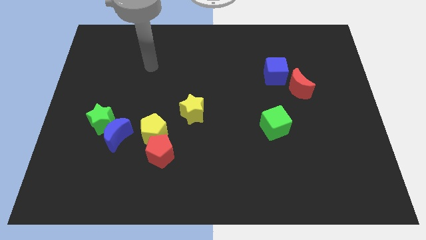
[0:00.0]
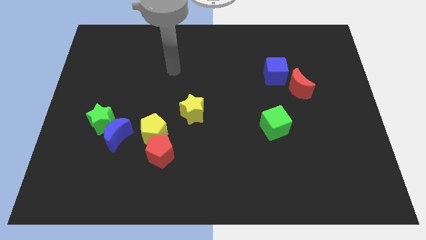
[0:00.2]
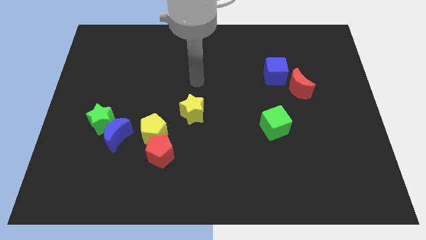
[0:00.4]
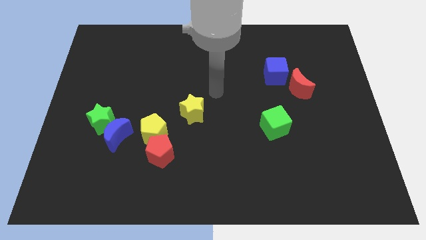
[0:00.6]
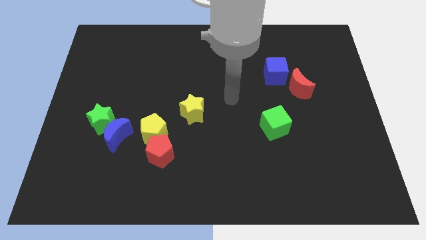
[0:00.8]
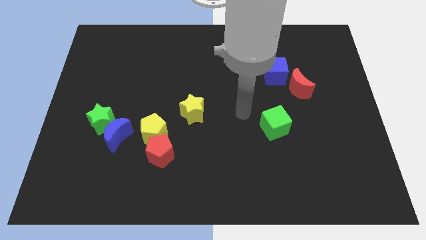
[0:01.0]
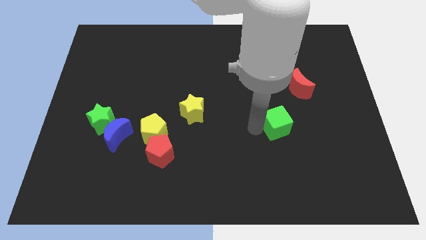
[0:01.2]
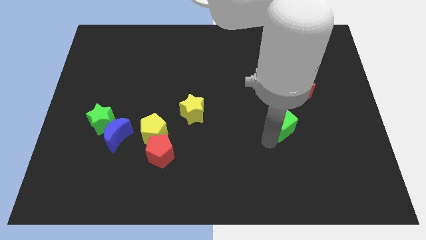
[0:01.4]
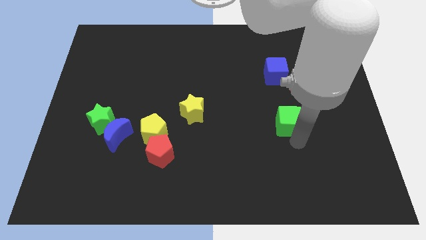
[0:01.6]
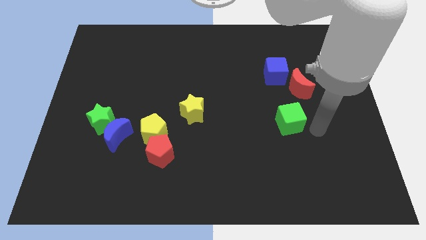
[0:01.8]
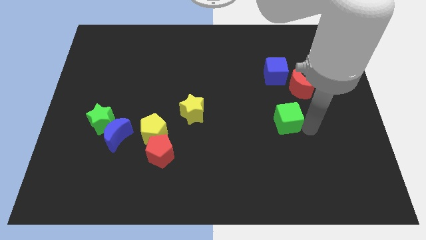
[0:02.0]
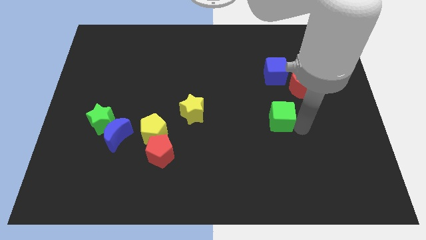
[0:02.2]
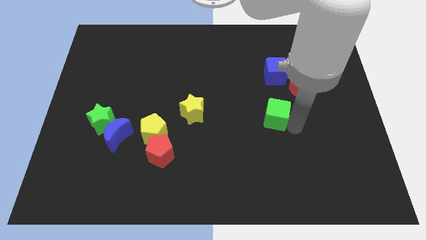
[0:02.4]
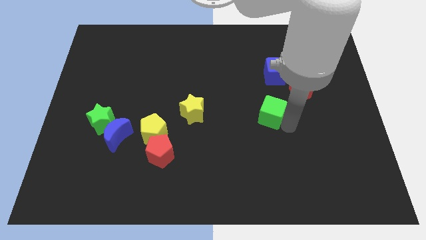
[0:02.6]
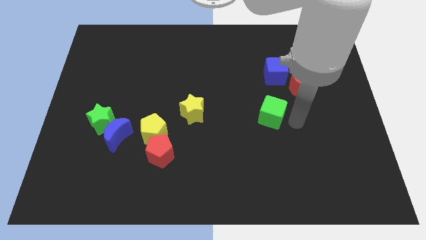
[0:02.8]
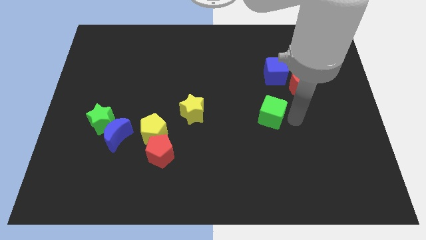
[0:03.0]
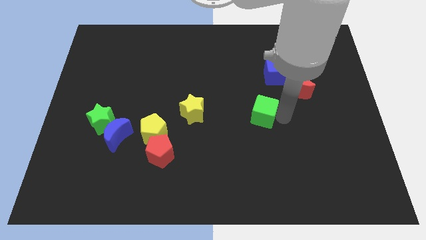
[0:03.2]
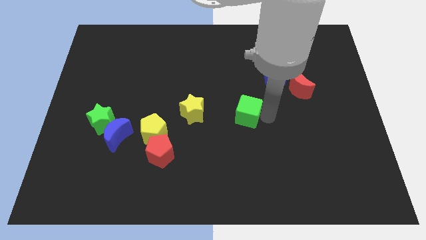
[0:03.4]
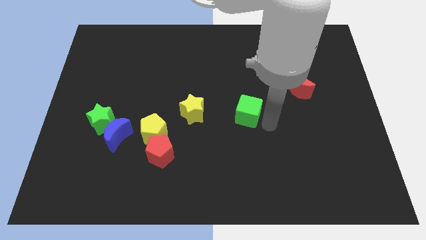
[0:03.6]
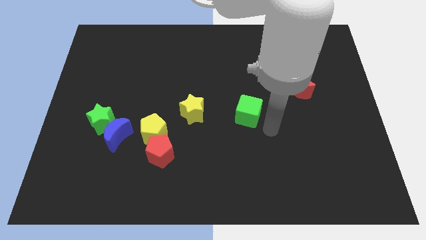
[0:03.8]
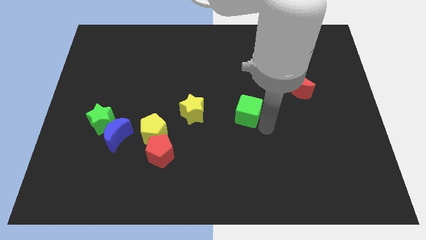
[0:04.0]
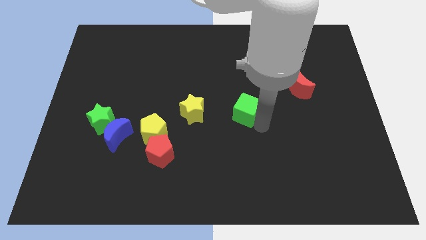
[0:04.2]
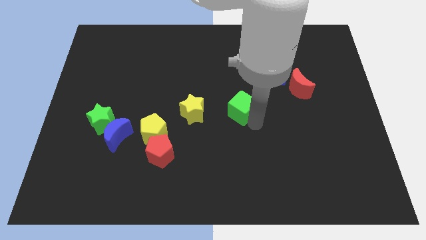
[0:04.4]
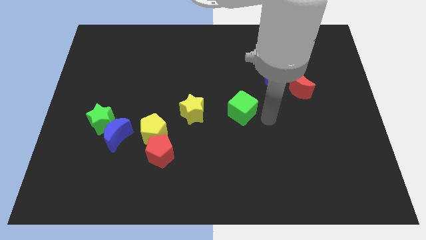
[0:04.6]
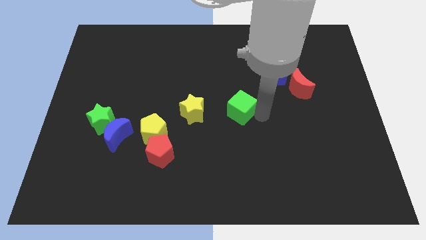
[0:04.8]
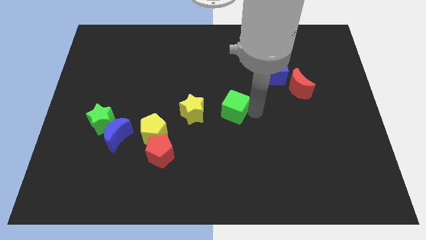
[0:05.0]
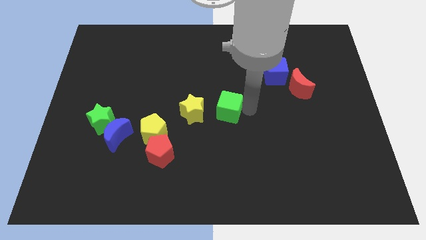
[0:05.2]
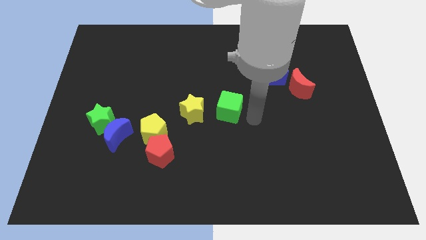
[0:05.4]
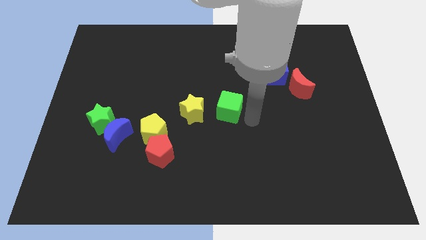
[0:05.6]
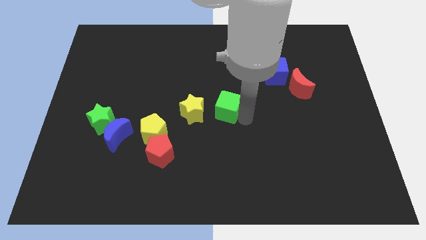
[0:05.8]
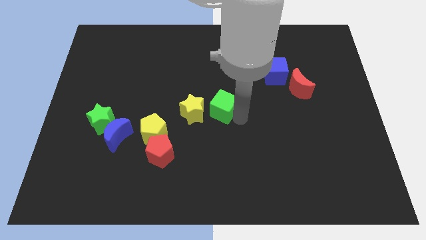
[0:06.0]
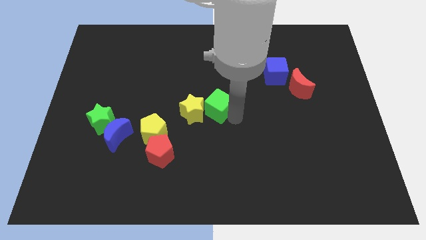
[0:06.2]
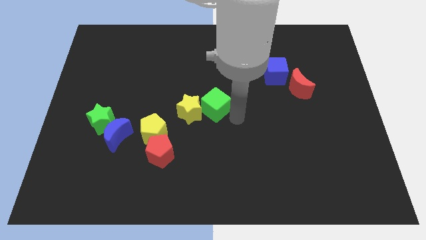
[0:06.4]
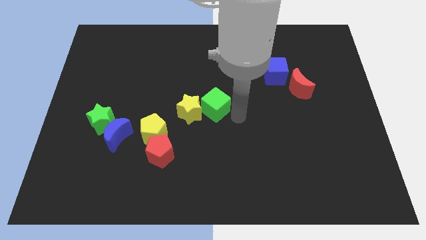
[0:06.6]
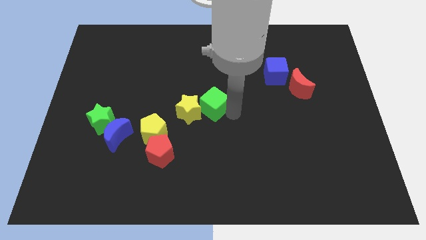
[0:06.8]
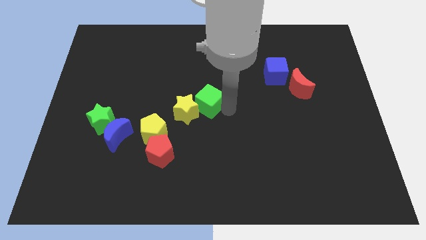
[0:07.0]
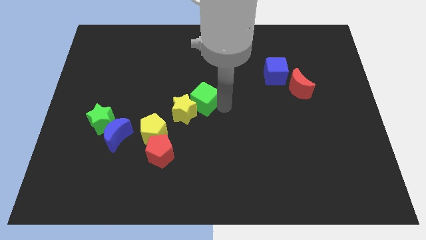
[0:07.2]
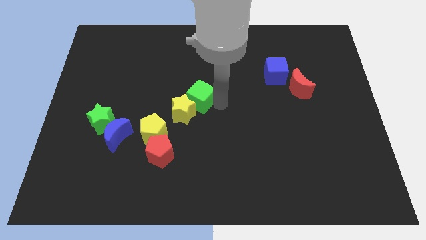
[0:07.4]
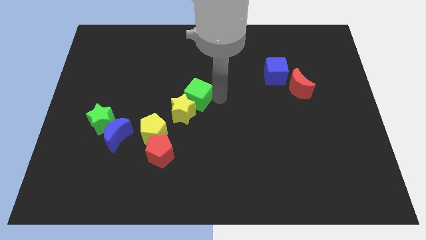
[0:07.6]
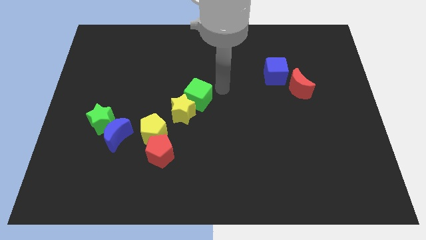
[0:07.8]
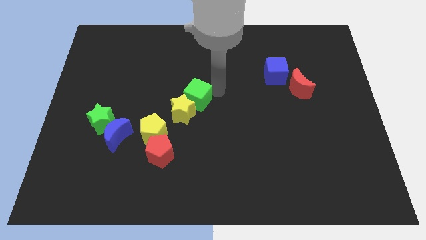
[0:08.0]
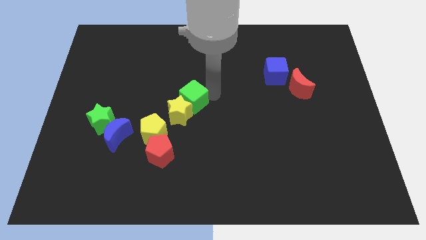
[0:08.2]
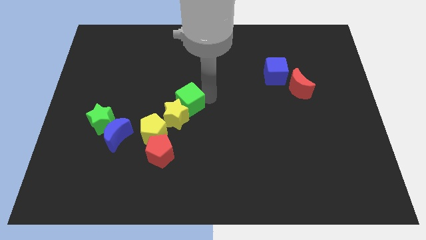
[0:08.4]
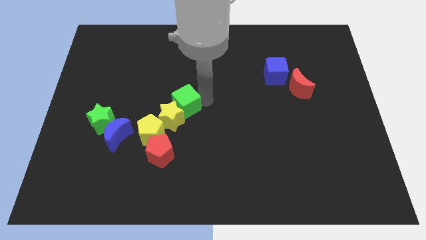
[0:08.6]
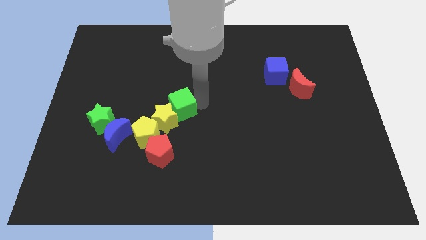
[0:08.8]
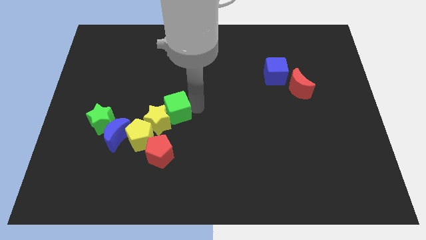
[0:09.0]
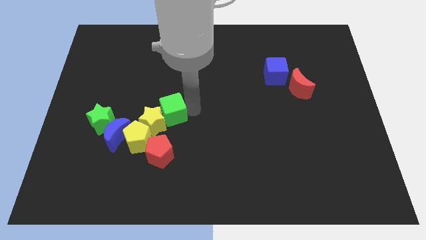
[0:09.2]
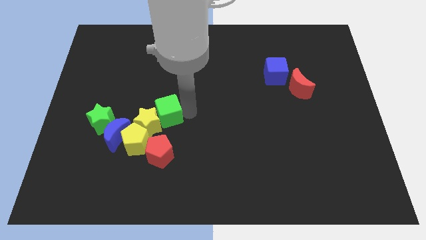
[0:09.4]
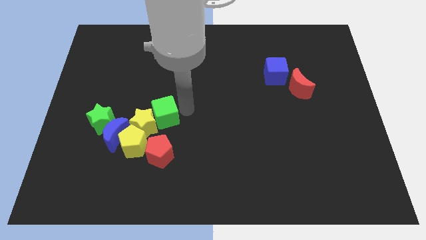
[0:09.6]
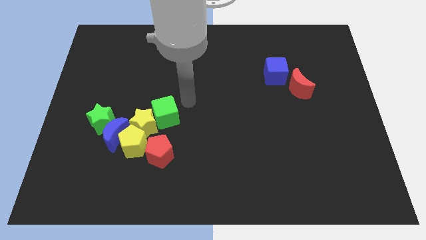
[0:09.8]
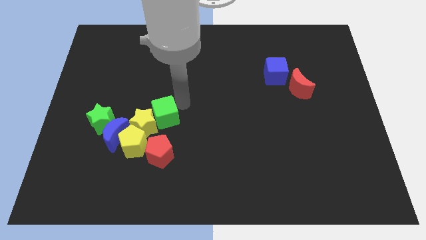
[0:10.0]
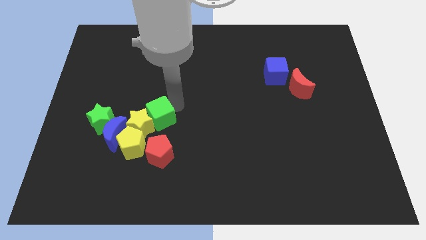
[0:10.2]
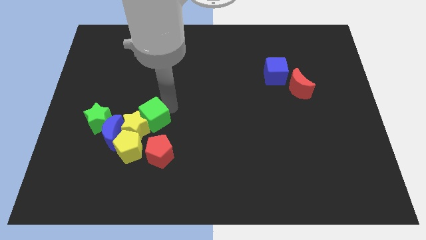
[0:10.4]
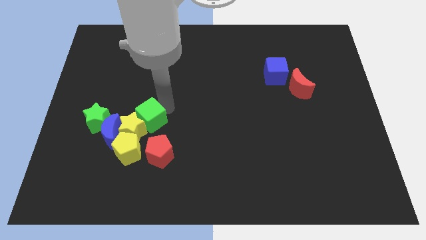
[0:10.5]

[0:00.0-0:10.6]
push the green cube diagonally up and to the left of the red pentagon

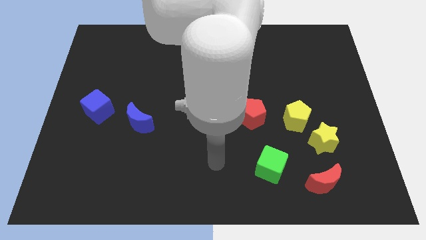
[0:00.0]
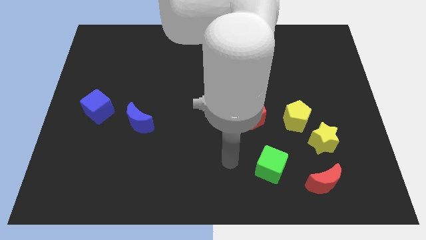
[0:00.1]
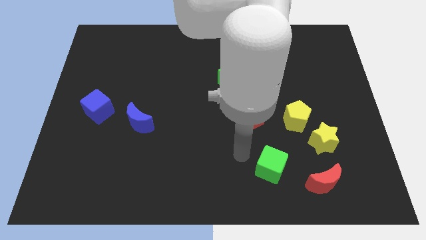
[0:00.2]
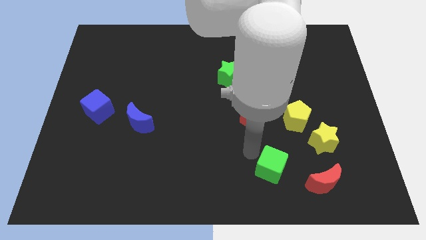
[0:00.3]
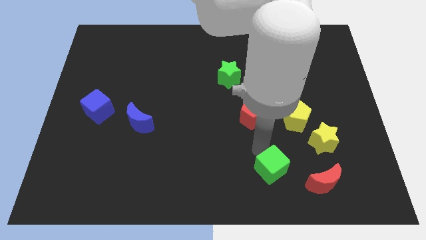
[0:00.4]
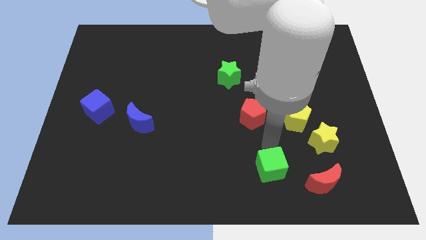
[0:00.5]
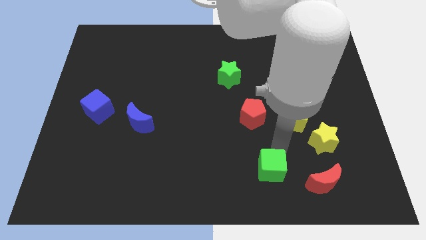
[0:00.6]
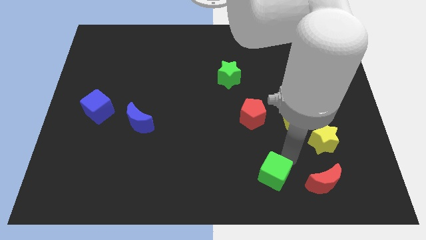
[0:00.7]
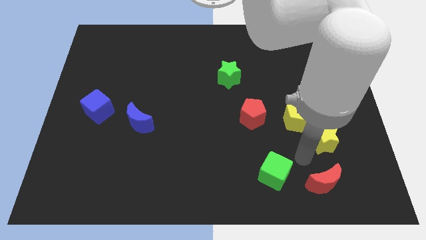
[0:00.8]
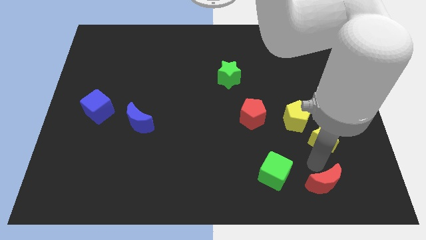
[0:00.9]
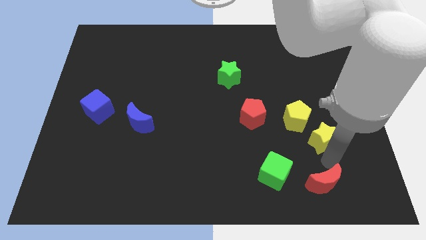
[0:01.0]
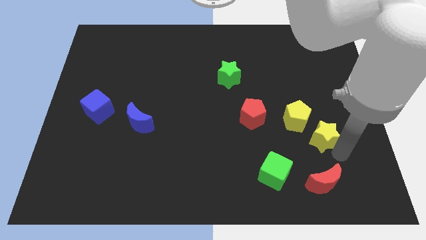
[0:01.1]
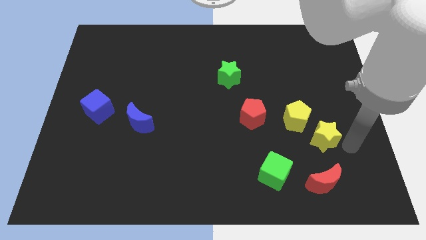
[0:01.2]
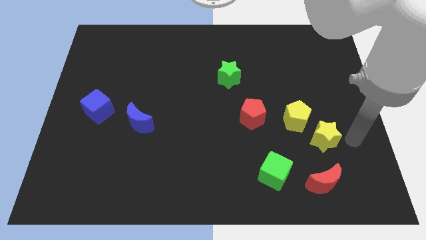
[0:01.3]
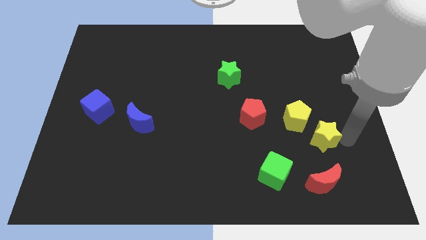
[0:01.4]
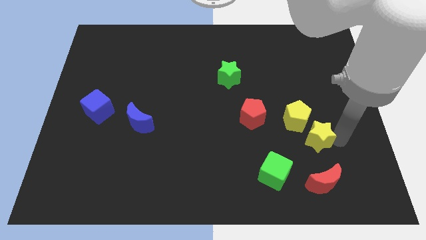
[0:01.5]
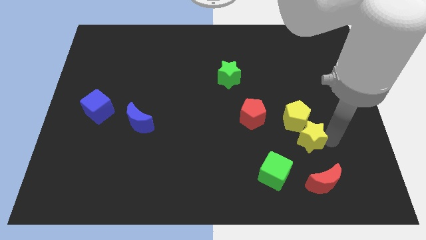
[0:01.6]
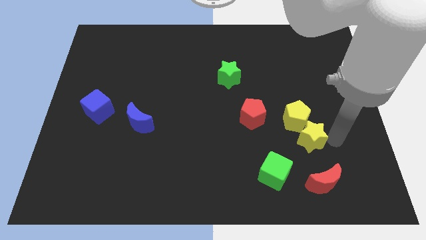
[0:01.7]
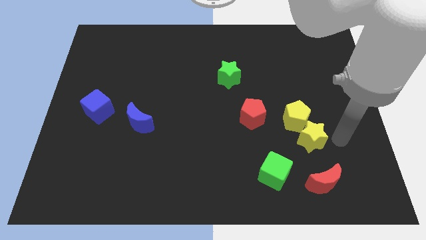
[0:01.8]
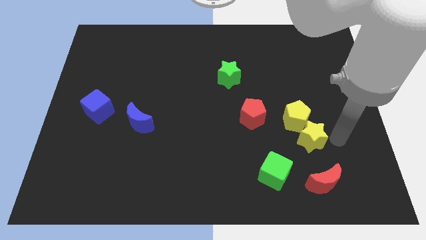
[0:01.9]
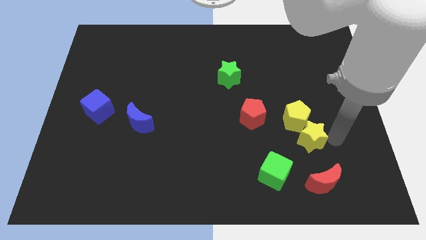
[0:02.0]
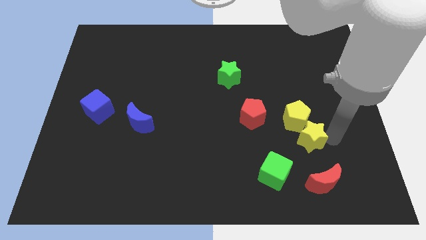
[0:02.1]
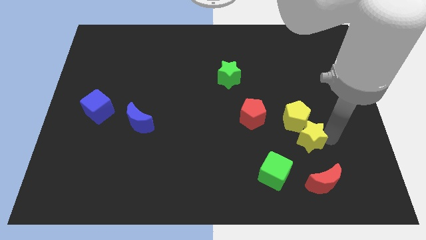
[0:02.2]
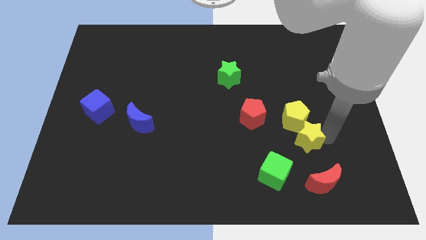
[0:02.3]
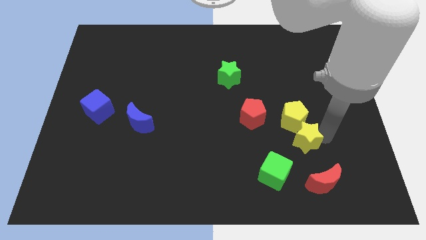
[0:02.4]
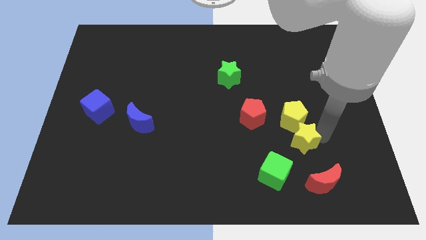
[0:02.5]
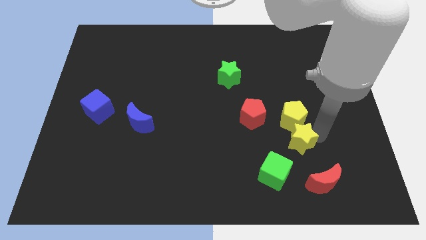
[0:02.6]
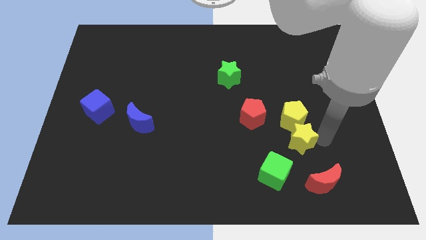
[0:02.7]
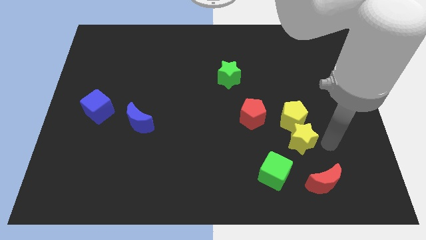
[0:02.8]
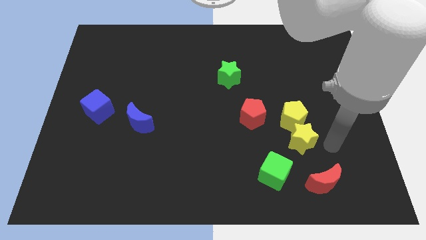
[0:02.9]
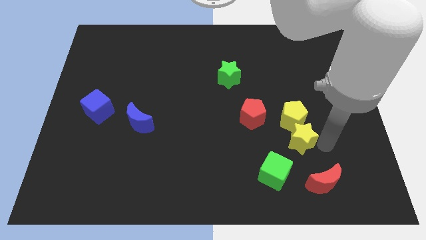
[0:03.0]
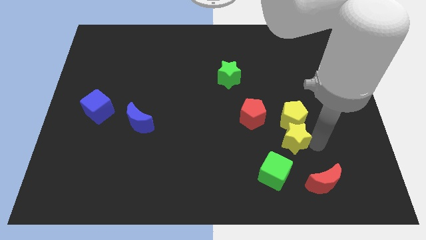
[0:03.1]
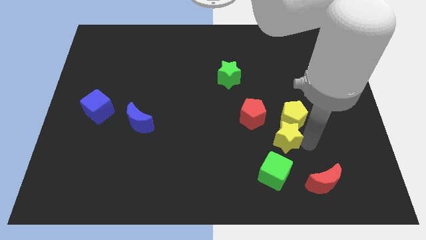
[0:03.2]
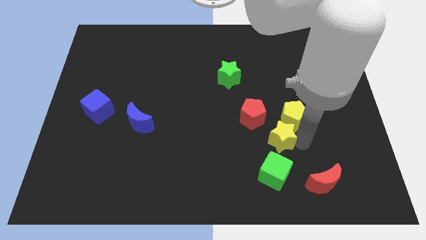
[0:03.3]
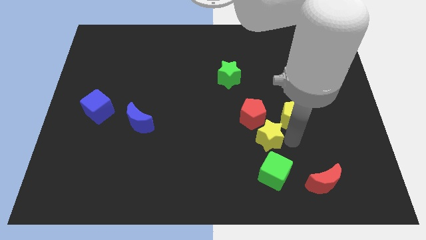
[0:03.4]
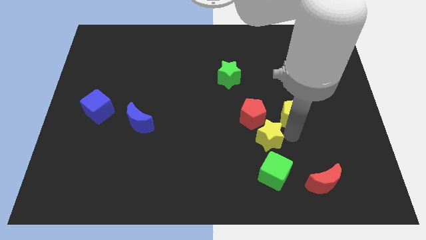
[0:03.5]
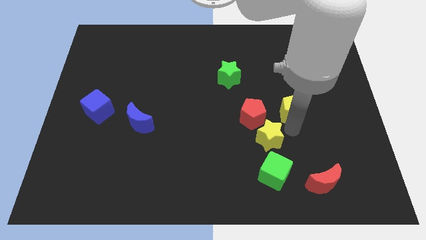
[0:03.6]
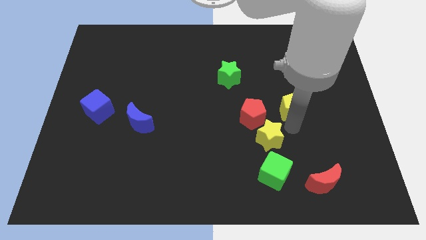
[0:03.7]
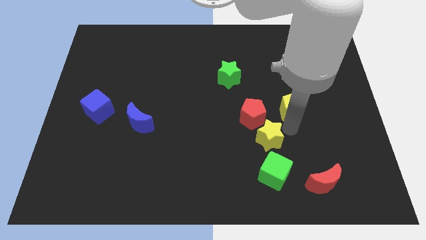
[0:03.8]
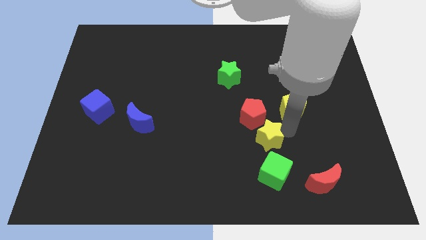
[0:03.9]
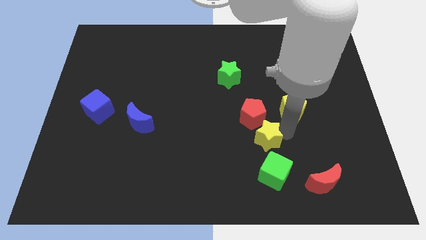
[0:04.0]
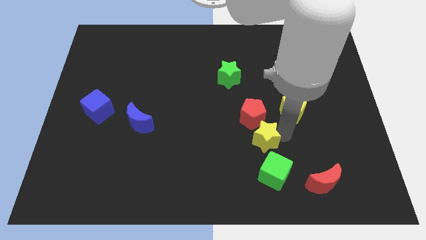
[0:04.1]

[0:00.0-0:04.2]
put the yellow star diagonally up and to the left of the green cube
